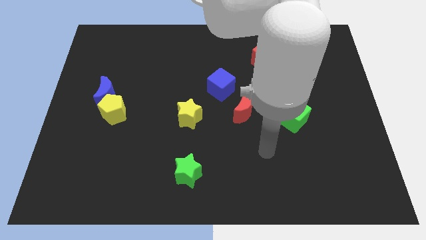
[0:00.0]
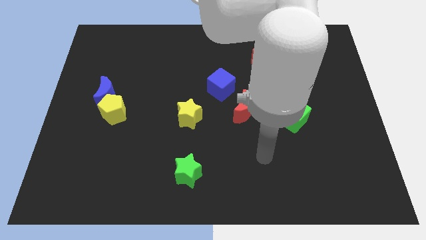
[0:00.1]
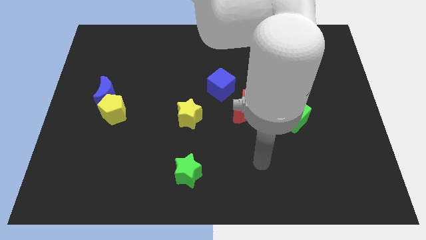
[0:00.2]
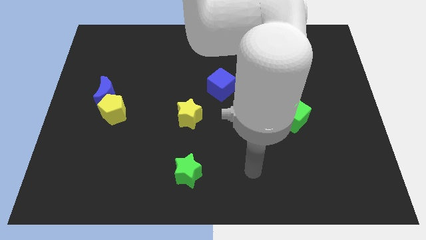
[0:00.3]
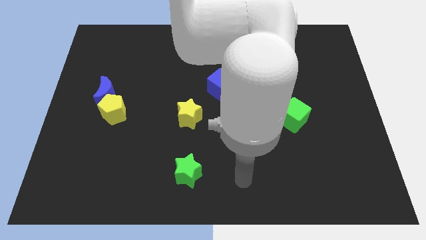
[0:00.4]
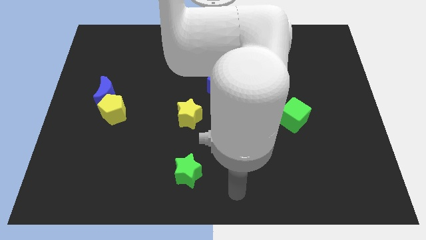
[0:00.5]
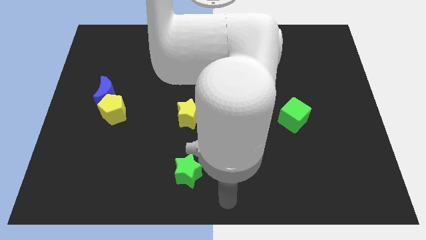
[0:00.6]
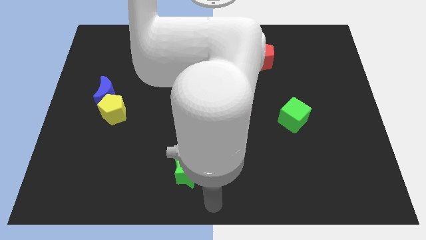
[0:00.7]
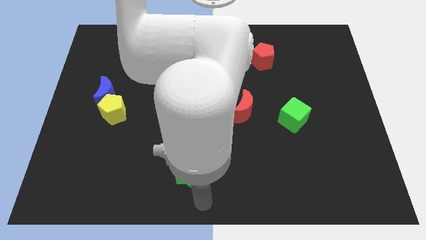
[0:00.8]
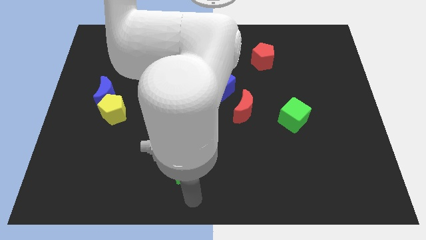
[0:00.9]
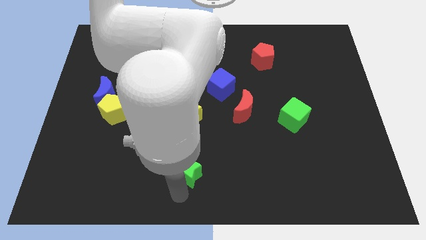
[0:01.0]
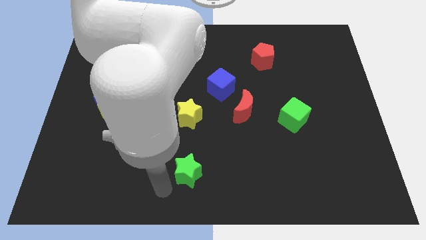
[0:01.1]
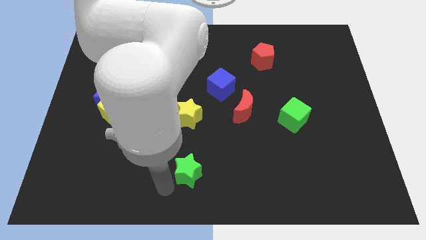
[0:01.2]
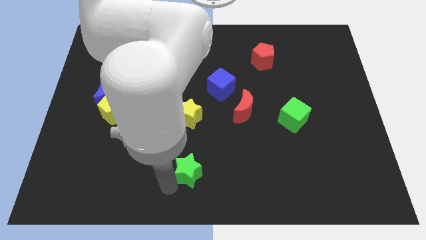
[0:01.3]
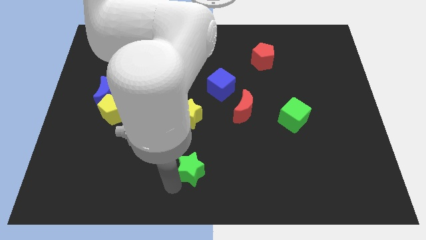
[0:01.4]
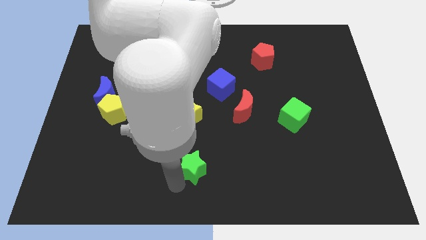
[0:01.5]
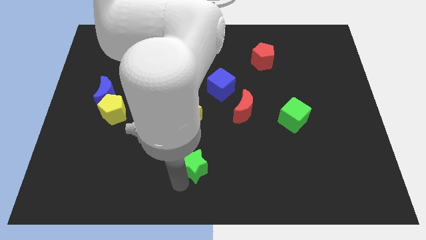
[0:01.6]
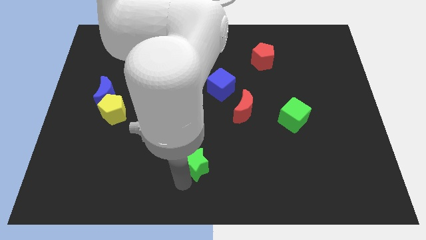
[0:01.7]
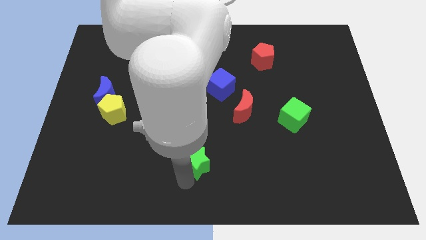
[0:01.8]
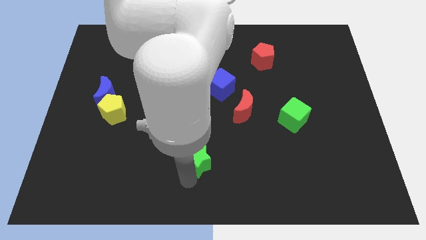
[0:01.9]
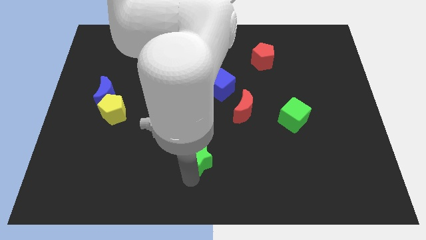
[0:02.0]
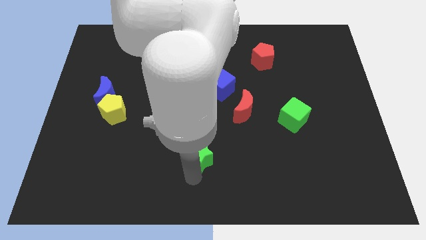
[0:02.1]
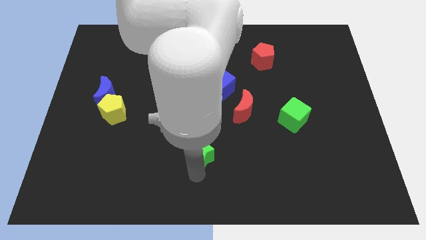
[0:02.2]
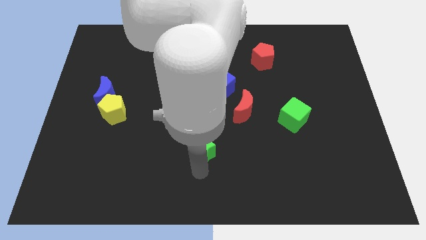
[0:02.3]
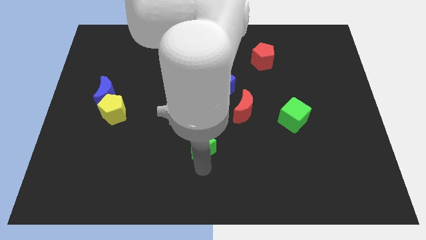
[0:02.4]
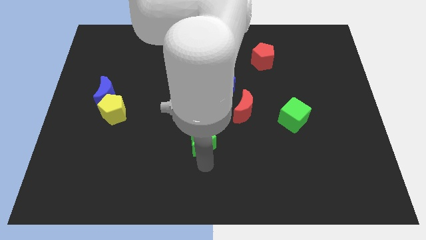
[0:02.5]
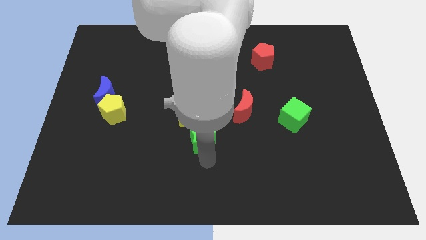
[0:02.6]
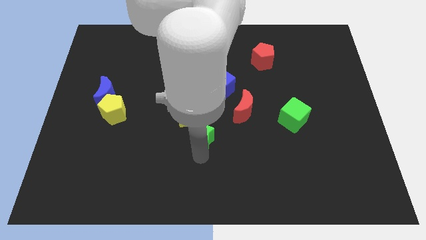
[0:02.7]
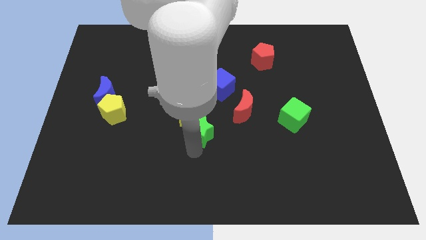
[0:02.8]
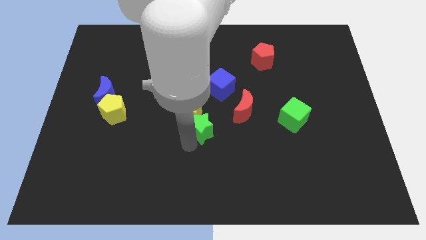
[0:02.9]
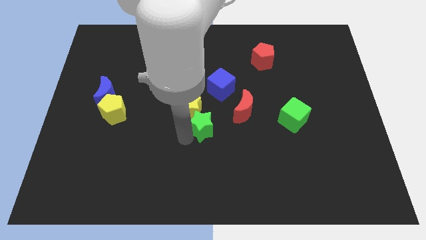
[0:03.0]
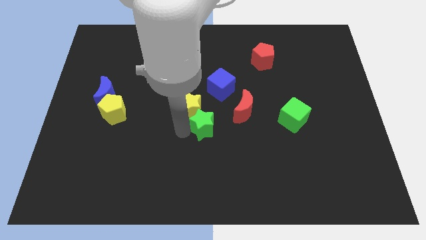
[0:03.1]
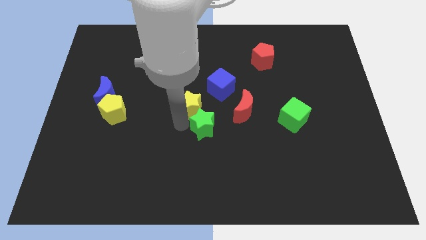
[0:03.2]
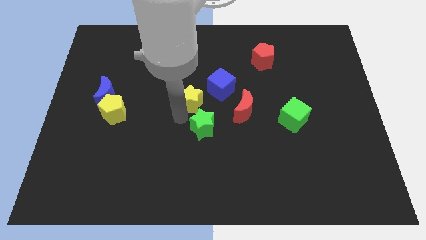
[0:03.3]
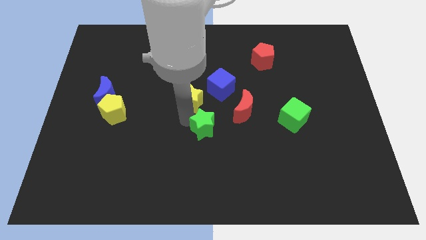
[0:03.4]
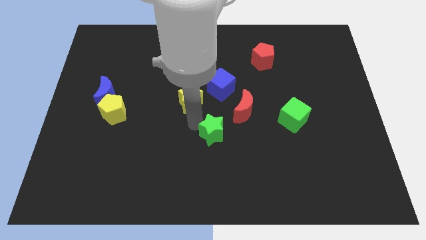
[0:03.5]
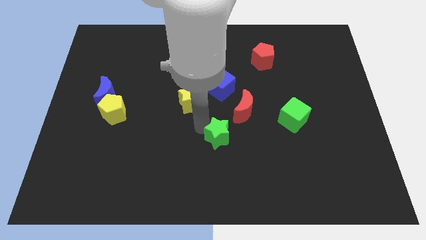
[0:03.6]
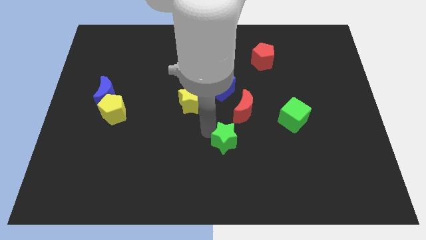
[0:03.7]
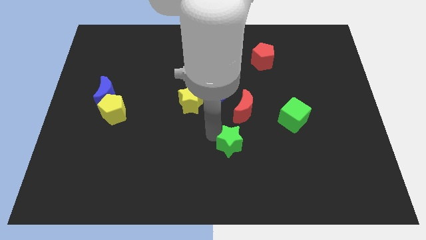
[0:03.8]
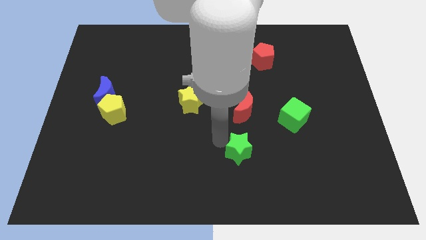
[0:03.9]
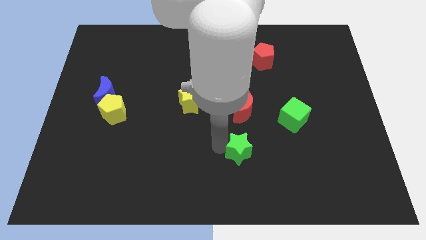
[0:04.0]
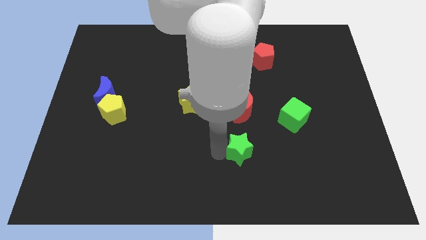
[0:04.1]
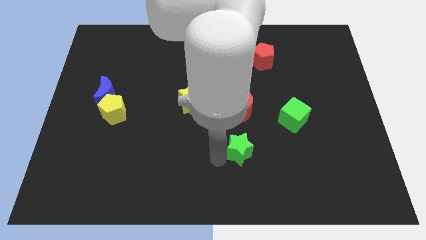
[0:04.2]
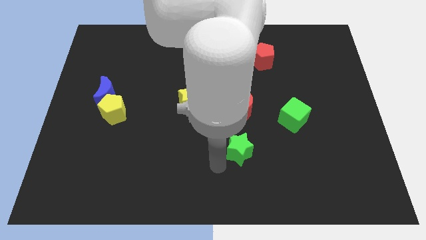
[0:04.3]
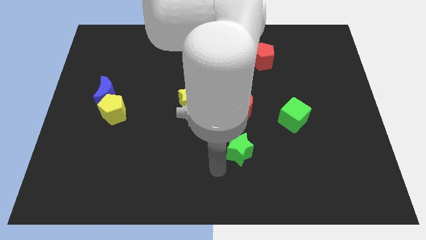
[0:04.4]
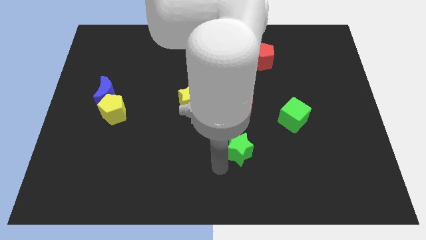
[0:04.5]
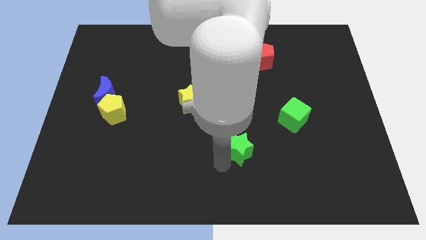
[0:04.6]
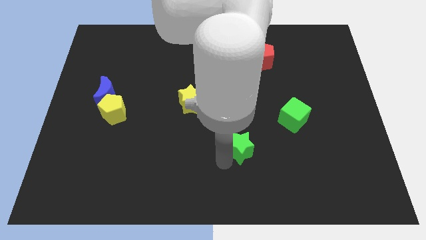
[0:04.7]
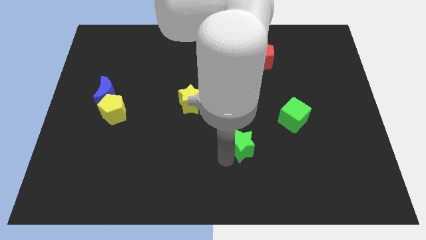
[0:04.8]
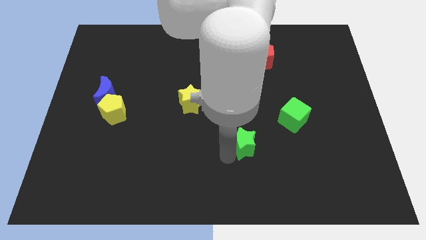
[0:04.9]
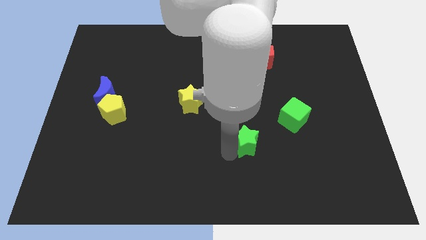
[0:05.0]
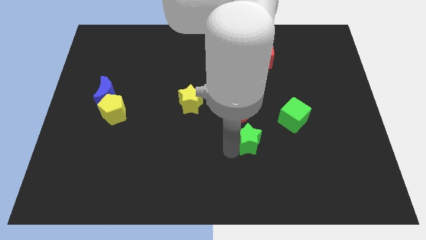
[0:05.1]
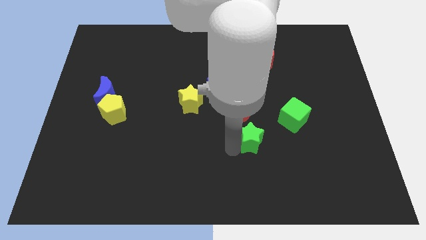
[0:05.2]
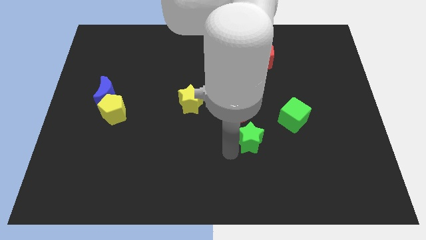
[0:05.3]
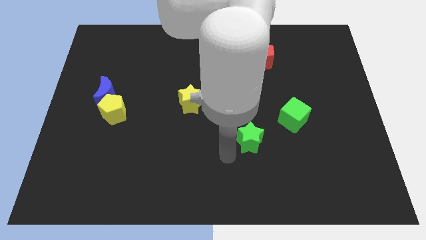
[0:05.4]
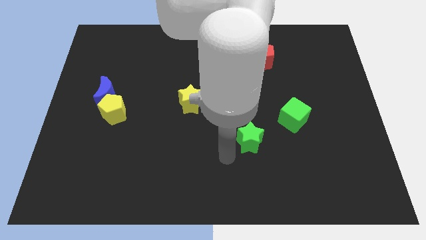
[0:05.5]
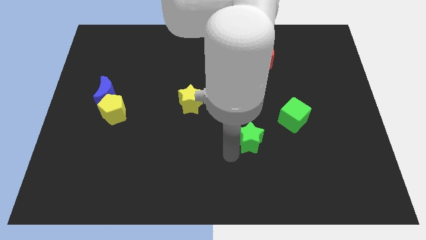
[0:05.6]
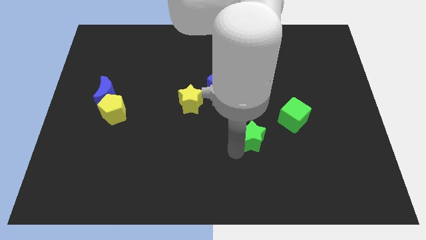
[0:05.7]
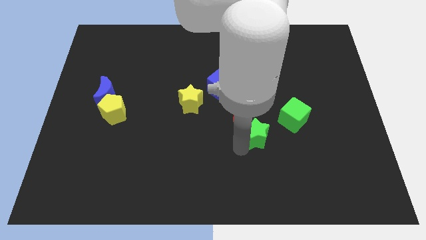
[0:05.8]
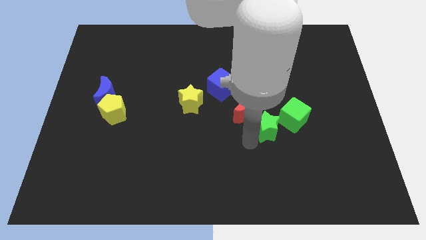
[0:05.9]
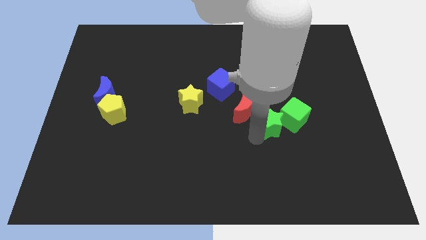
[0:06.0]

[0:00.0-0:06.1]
move the green star to the green cube

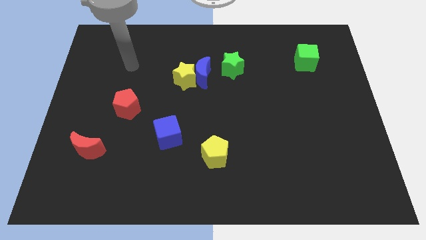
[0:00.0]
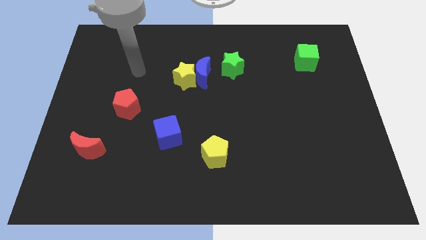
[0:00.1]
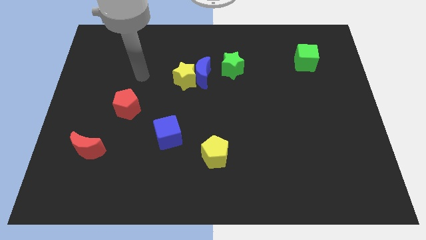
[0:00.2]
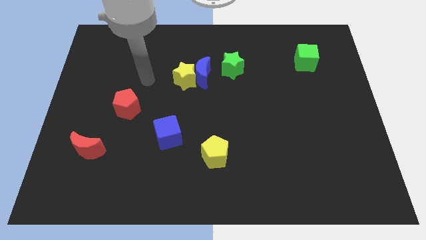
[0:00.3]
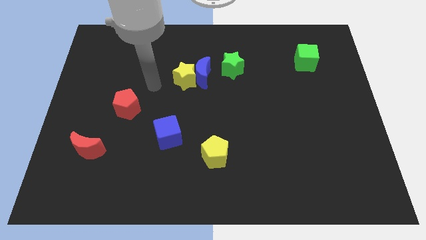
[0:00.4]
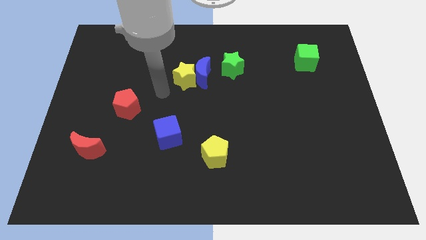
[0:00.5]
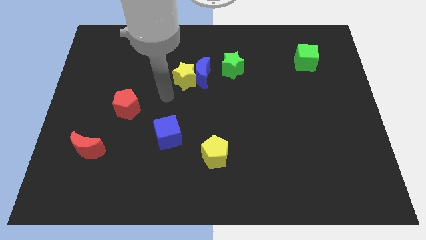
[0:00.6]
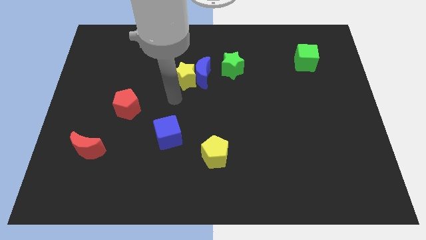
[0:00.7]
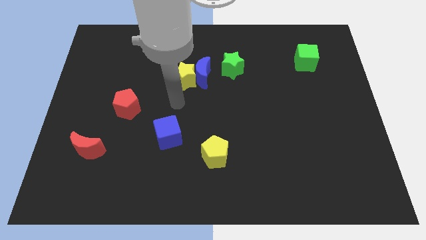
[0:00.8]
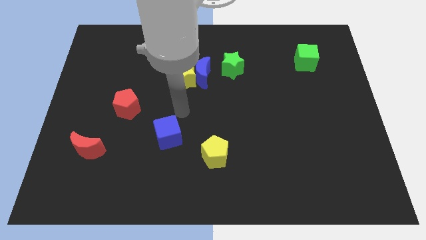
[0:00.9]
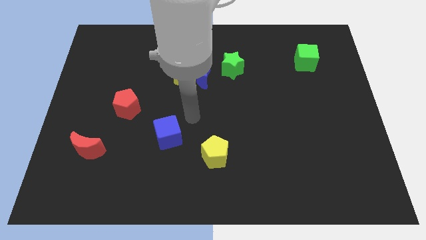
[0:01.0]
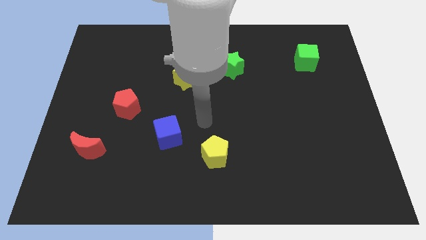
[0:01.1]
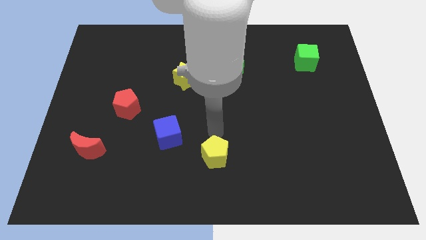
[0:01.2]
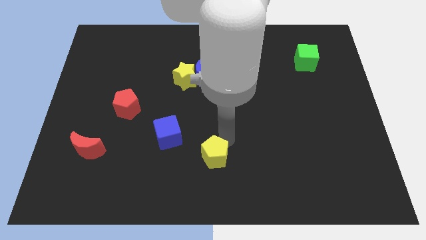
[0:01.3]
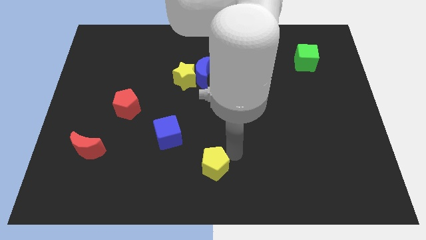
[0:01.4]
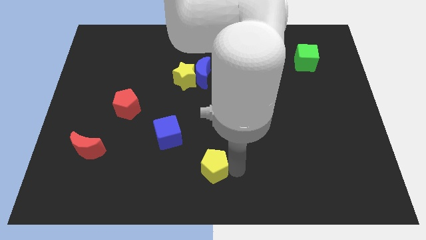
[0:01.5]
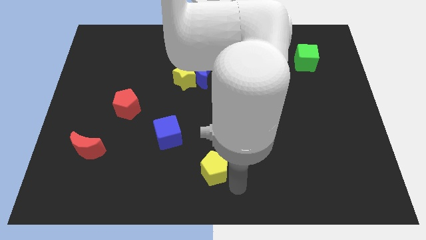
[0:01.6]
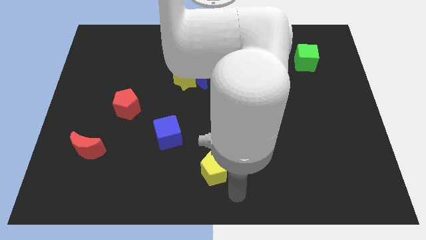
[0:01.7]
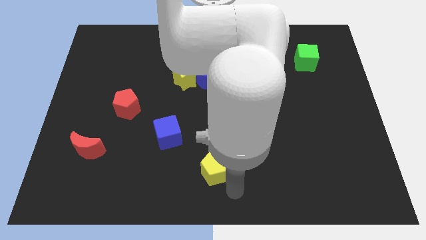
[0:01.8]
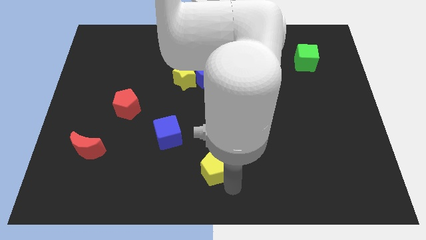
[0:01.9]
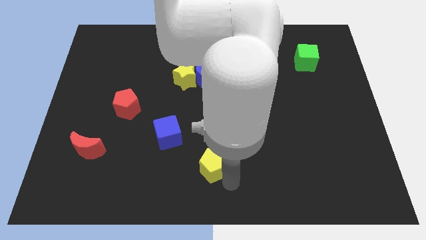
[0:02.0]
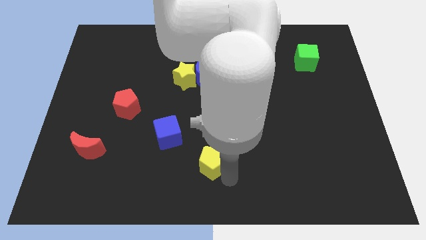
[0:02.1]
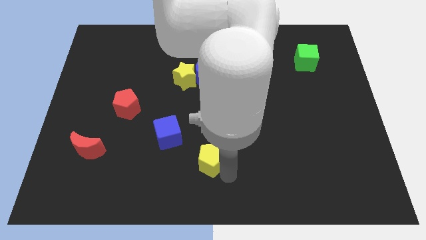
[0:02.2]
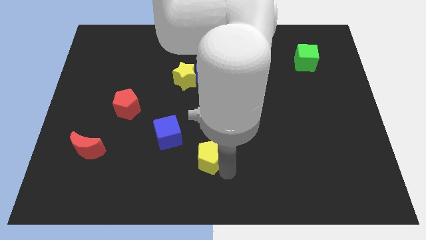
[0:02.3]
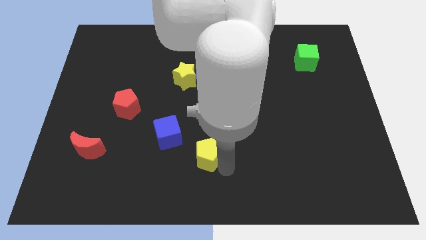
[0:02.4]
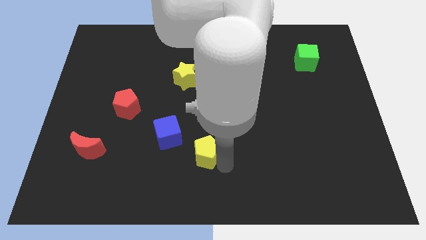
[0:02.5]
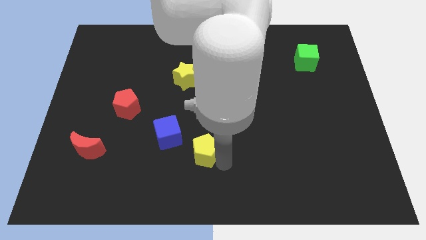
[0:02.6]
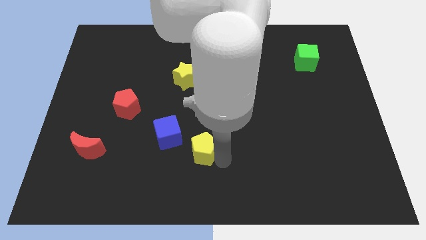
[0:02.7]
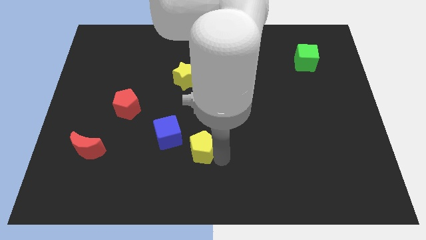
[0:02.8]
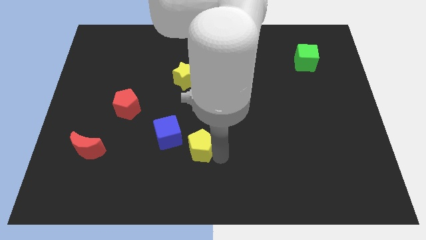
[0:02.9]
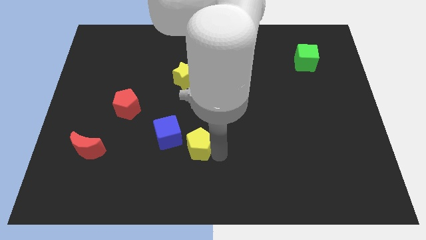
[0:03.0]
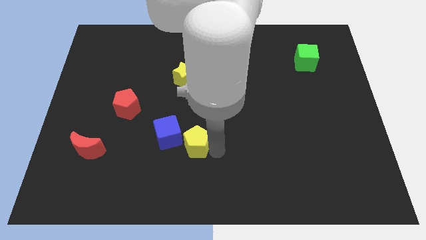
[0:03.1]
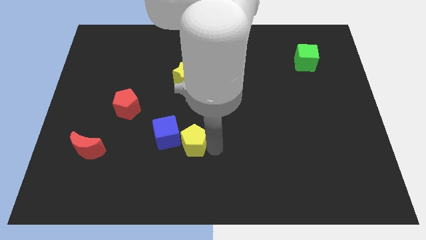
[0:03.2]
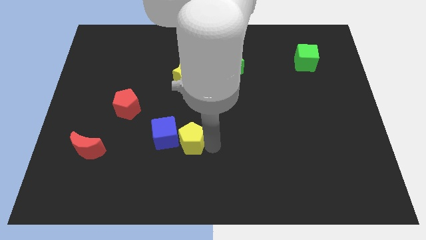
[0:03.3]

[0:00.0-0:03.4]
slide the yellow pentagon towards the blue cube
